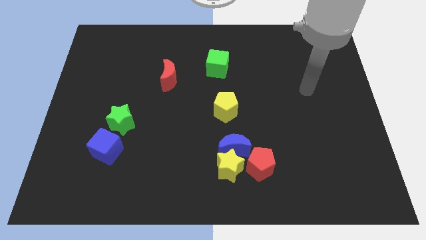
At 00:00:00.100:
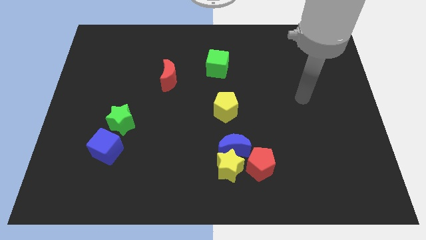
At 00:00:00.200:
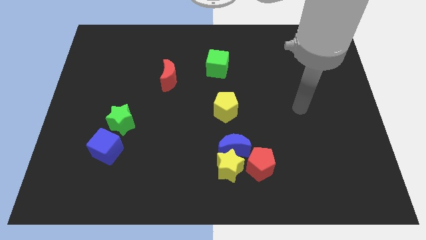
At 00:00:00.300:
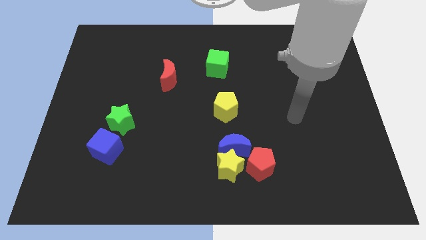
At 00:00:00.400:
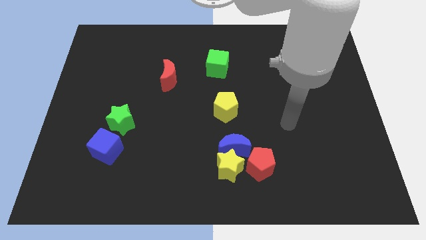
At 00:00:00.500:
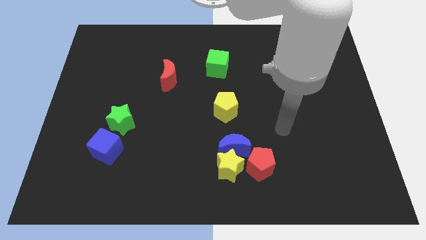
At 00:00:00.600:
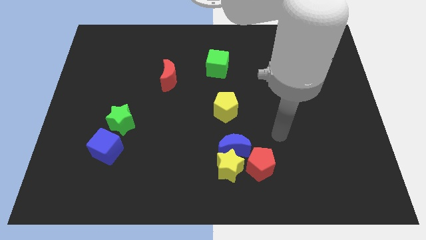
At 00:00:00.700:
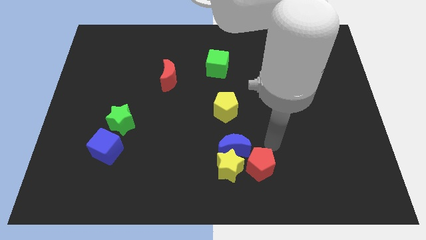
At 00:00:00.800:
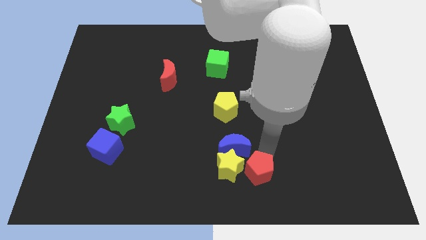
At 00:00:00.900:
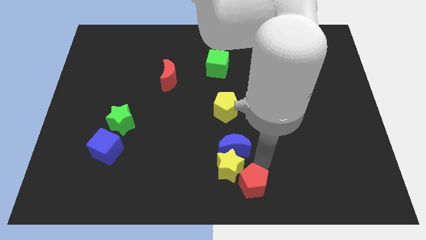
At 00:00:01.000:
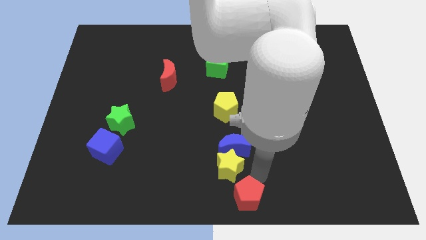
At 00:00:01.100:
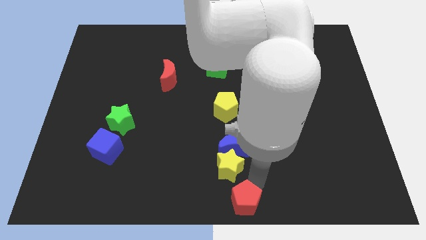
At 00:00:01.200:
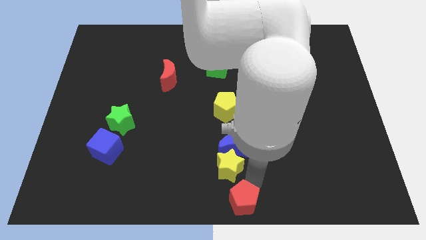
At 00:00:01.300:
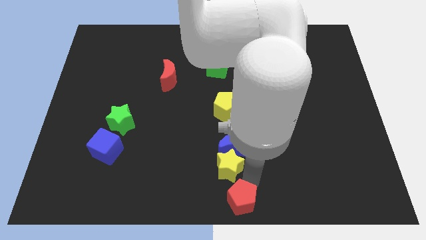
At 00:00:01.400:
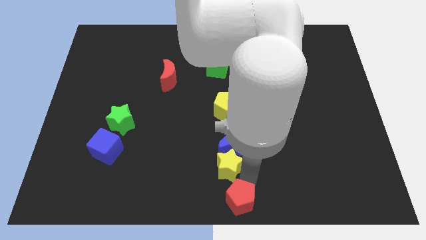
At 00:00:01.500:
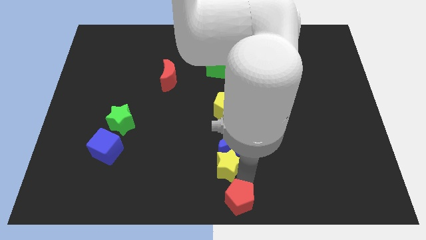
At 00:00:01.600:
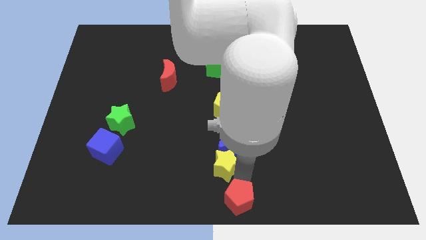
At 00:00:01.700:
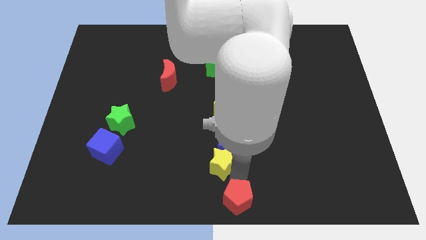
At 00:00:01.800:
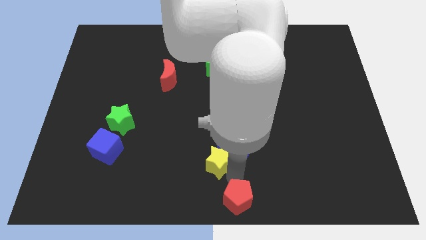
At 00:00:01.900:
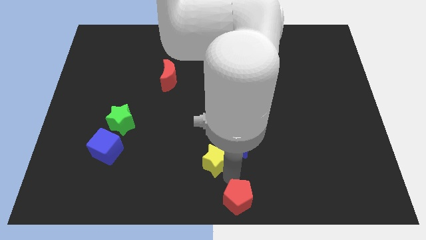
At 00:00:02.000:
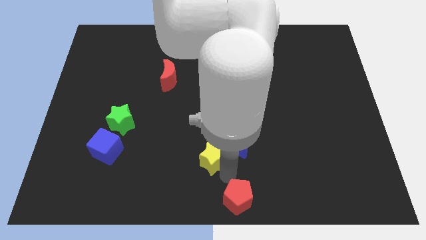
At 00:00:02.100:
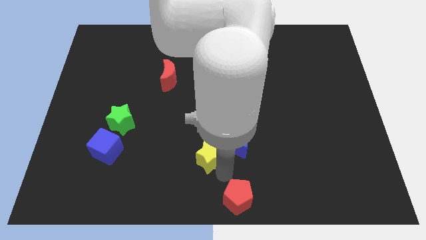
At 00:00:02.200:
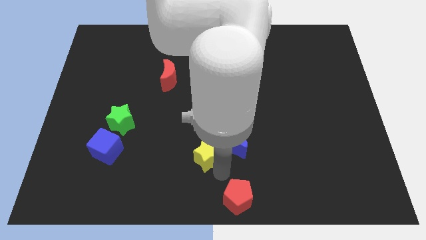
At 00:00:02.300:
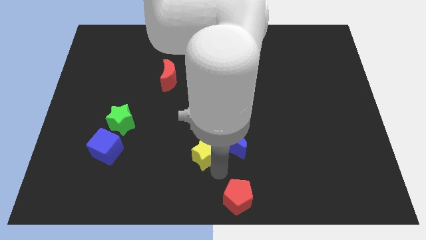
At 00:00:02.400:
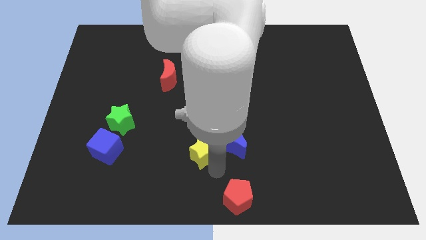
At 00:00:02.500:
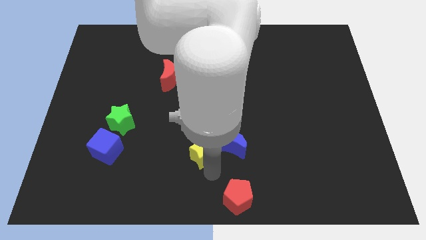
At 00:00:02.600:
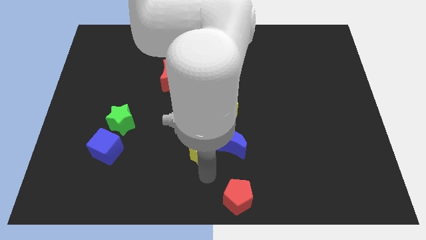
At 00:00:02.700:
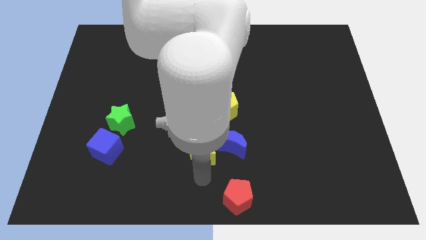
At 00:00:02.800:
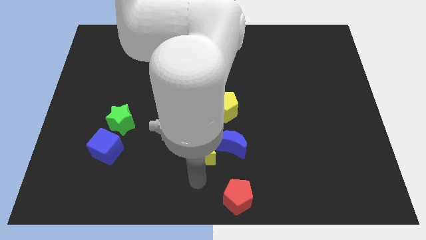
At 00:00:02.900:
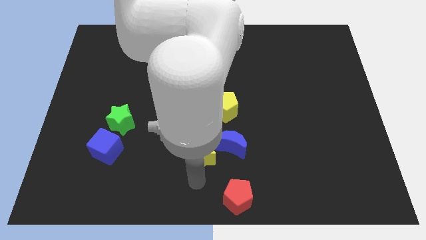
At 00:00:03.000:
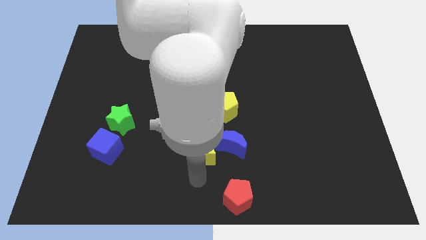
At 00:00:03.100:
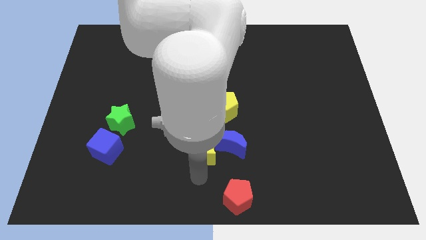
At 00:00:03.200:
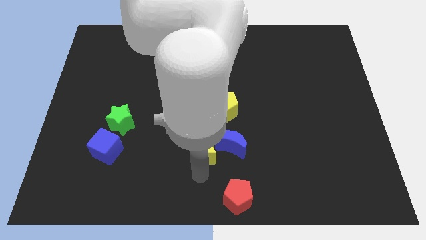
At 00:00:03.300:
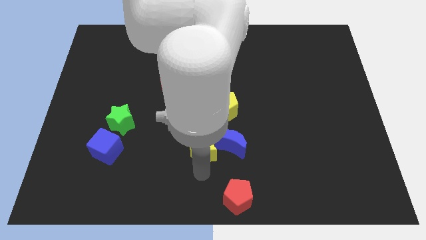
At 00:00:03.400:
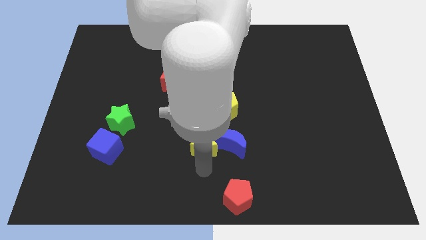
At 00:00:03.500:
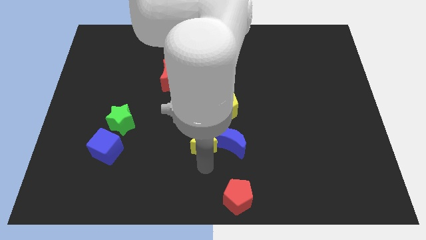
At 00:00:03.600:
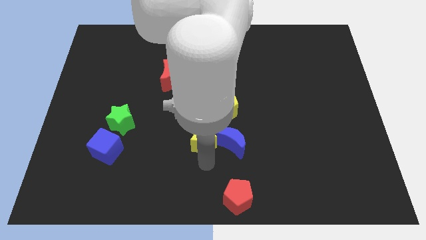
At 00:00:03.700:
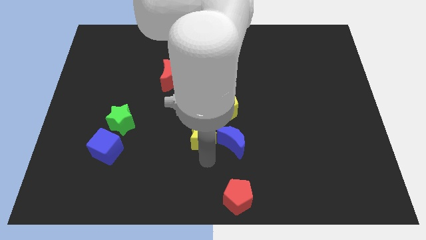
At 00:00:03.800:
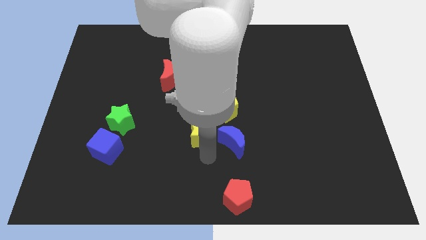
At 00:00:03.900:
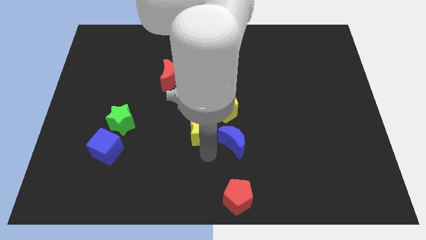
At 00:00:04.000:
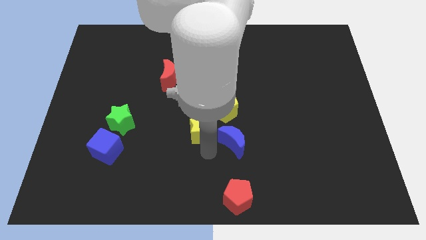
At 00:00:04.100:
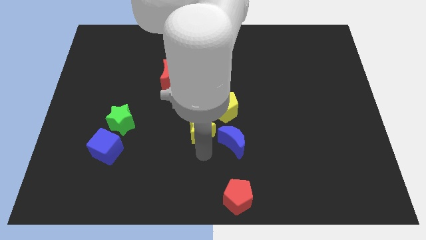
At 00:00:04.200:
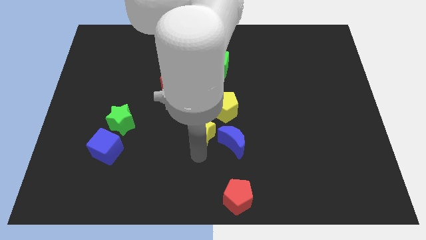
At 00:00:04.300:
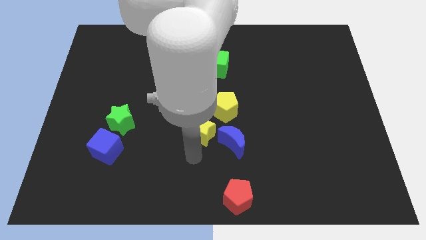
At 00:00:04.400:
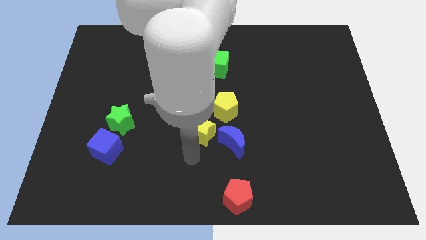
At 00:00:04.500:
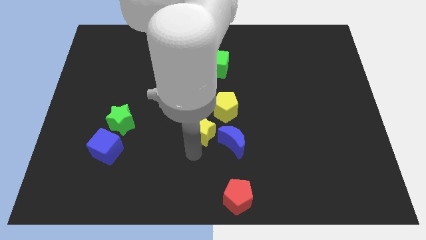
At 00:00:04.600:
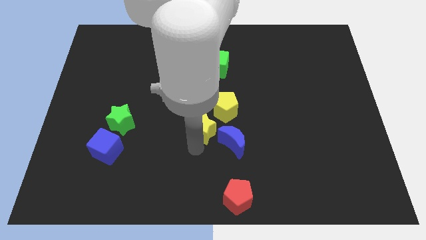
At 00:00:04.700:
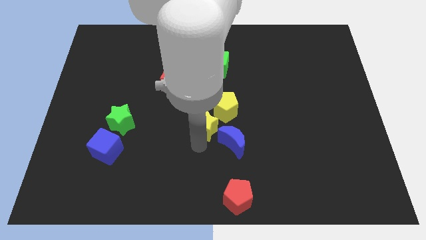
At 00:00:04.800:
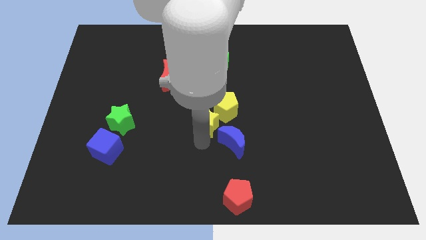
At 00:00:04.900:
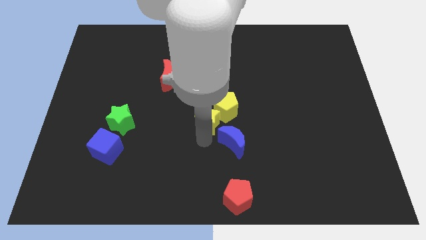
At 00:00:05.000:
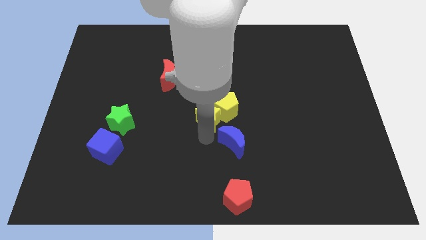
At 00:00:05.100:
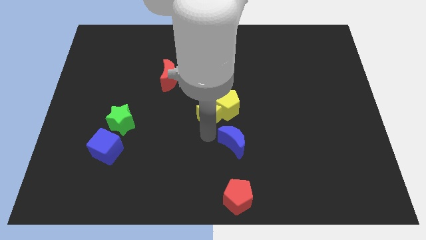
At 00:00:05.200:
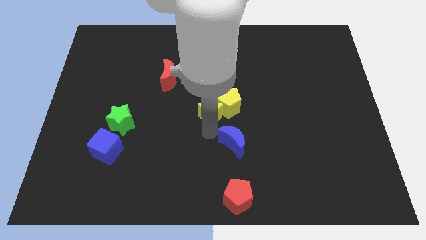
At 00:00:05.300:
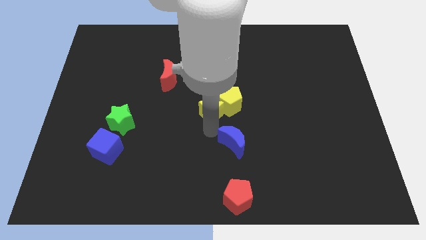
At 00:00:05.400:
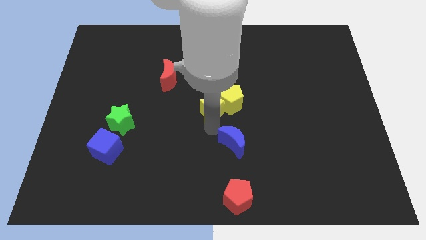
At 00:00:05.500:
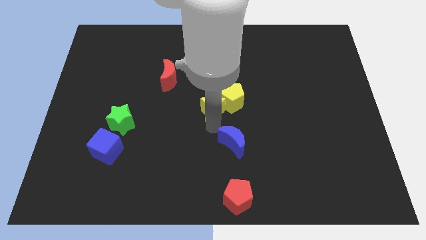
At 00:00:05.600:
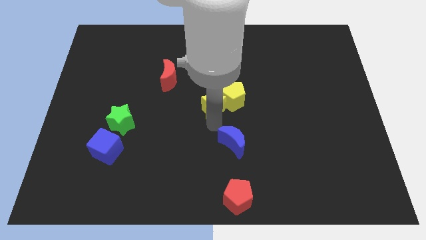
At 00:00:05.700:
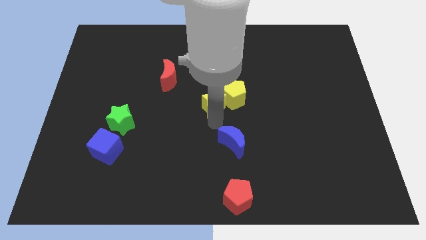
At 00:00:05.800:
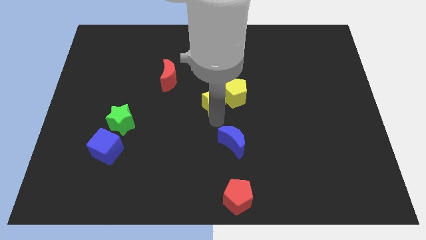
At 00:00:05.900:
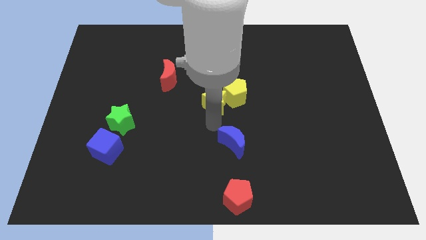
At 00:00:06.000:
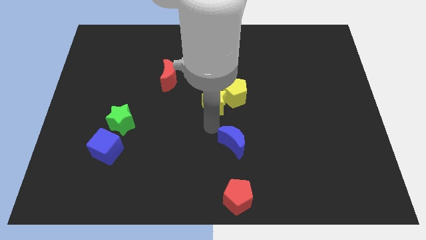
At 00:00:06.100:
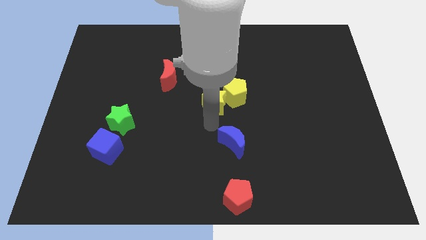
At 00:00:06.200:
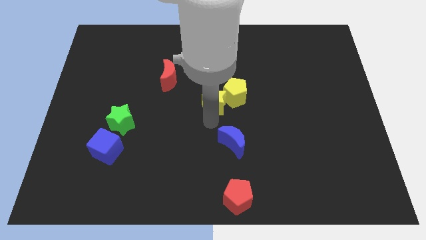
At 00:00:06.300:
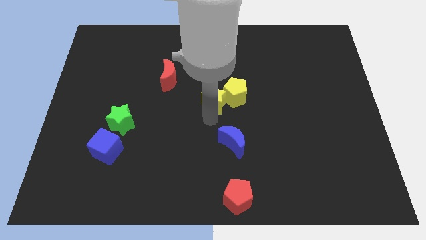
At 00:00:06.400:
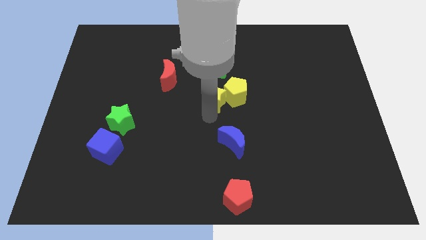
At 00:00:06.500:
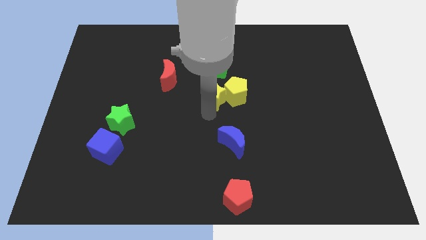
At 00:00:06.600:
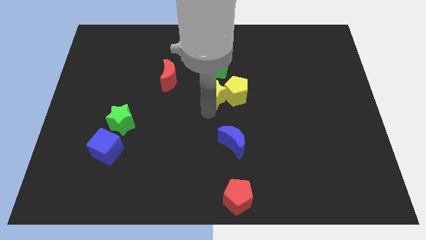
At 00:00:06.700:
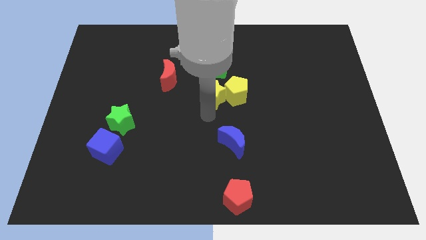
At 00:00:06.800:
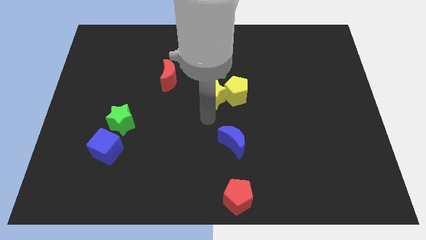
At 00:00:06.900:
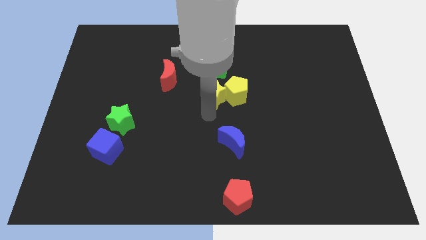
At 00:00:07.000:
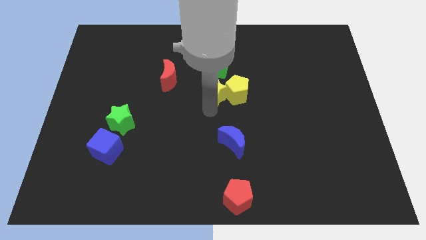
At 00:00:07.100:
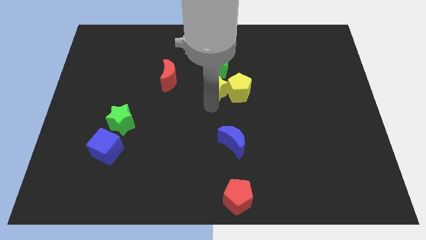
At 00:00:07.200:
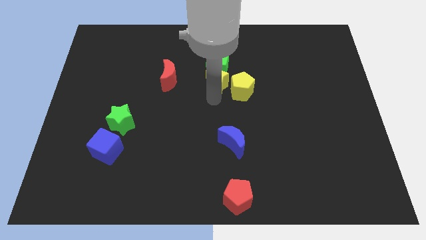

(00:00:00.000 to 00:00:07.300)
slide the yellow star to the green cube

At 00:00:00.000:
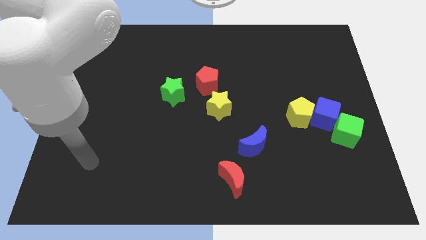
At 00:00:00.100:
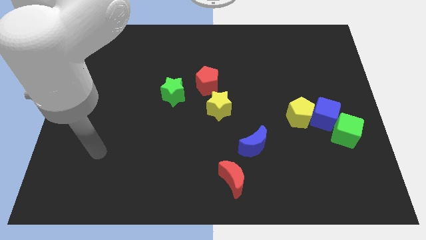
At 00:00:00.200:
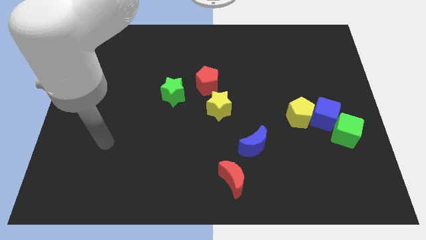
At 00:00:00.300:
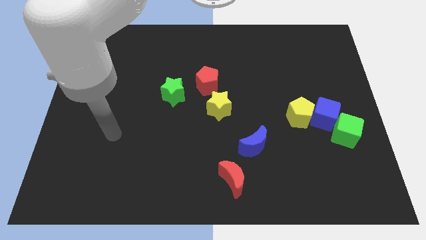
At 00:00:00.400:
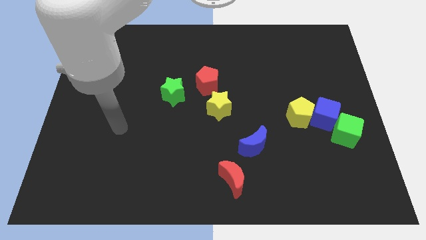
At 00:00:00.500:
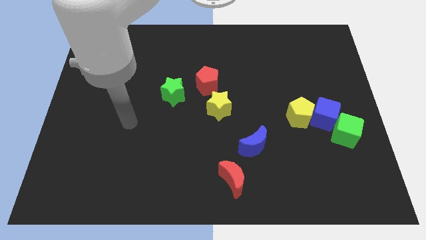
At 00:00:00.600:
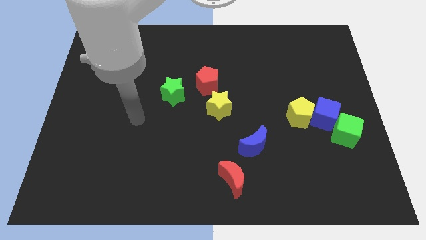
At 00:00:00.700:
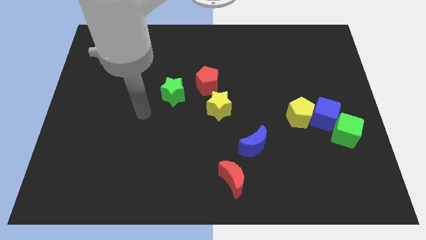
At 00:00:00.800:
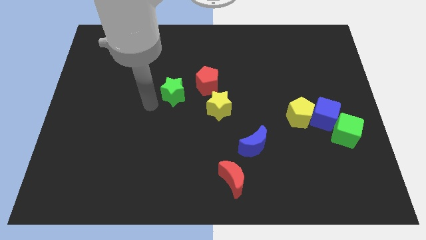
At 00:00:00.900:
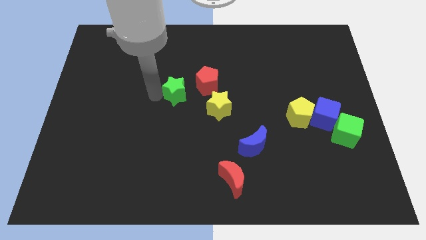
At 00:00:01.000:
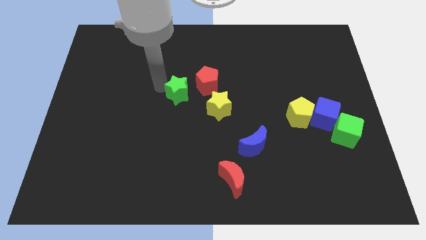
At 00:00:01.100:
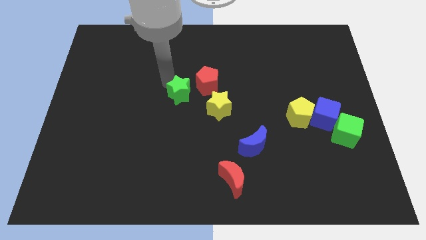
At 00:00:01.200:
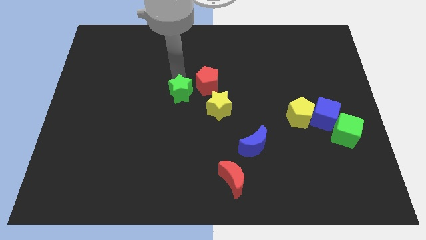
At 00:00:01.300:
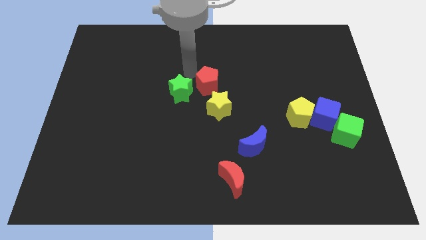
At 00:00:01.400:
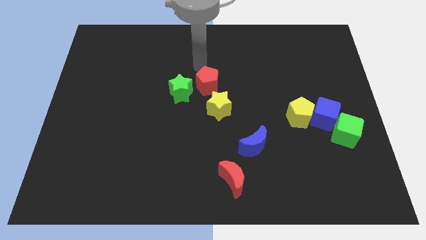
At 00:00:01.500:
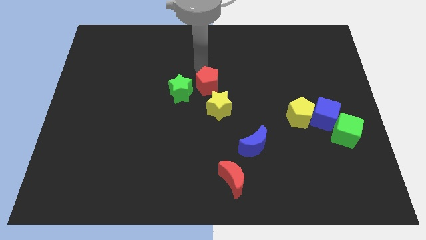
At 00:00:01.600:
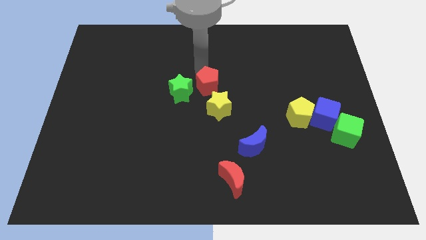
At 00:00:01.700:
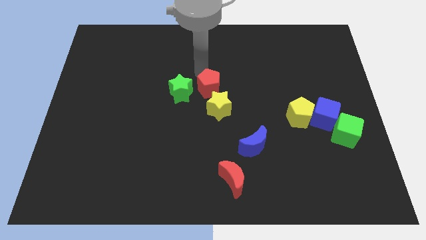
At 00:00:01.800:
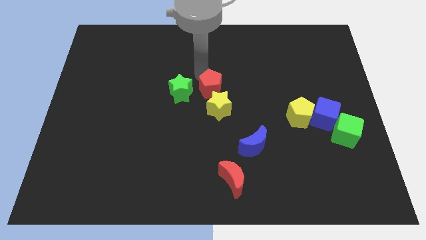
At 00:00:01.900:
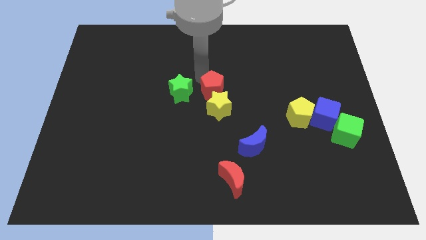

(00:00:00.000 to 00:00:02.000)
move the red pentagon to the yellow star
